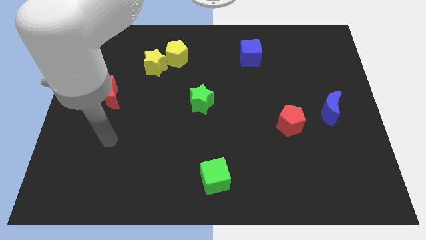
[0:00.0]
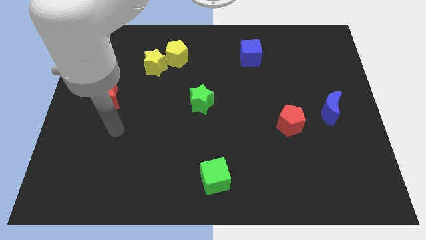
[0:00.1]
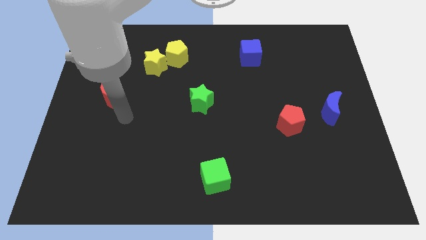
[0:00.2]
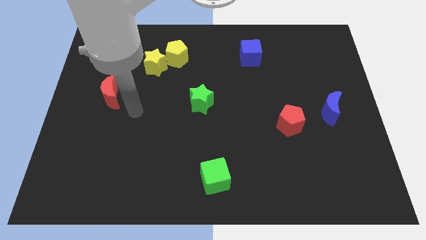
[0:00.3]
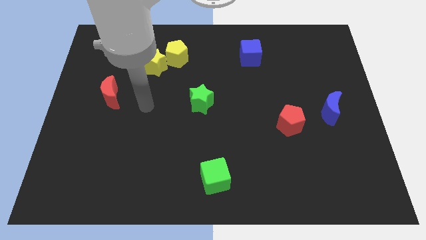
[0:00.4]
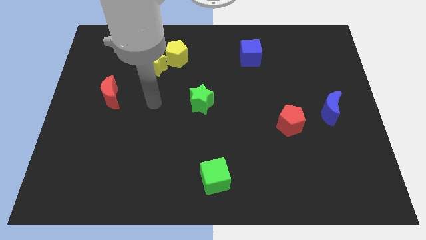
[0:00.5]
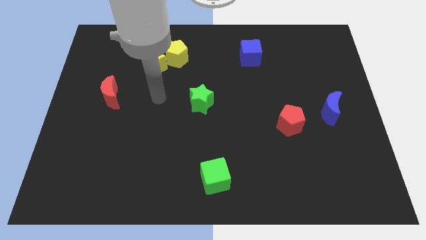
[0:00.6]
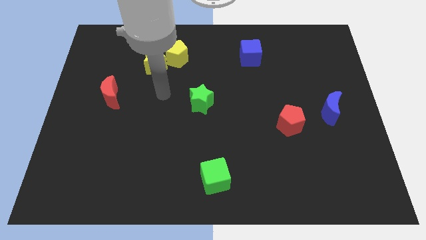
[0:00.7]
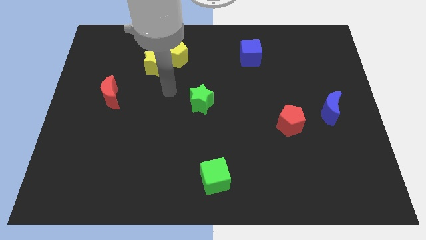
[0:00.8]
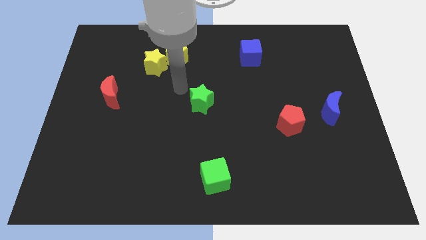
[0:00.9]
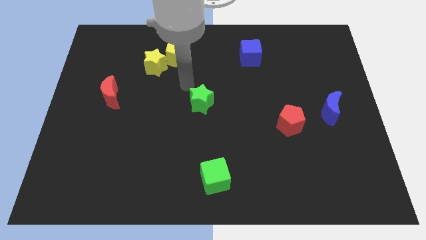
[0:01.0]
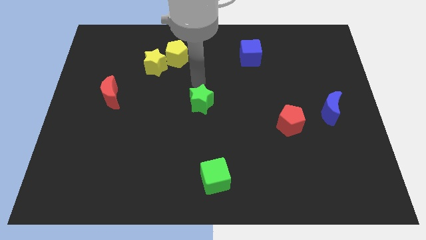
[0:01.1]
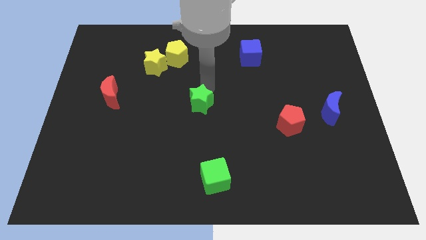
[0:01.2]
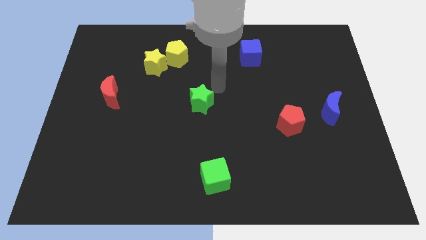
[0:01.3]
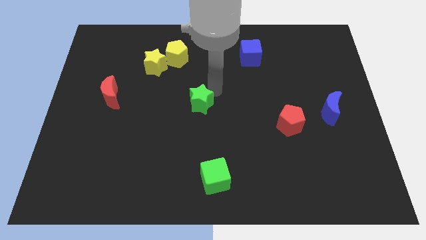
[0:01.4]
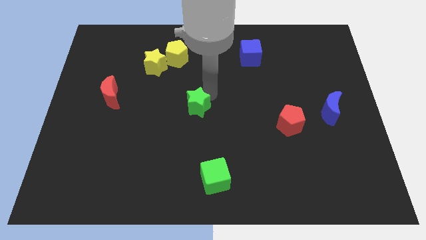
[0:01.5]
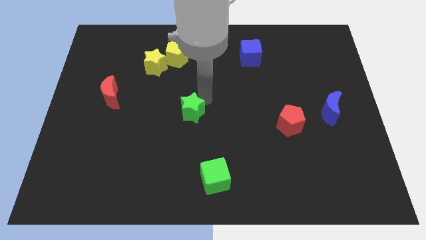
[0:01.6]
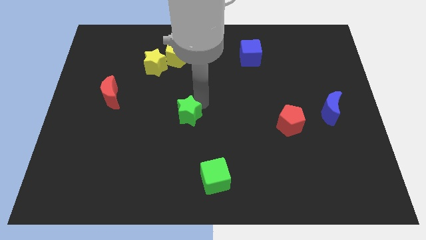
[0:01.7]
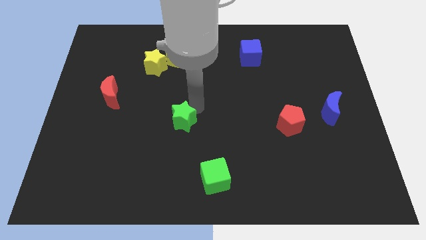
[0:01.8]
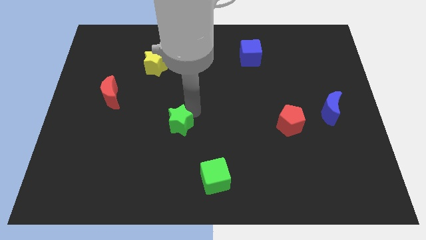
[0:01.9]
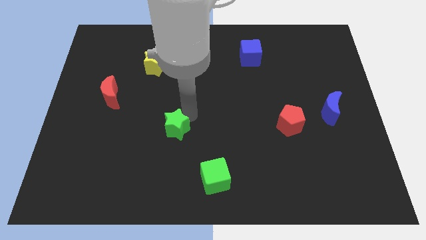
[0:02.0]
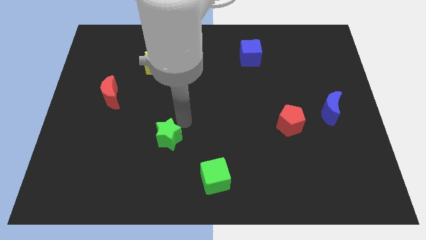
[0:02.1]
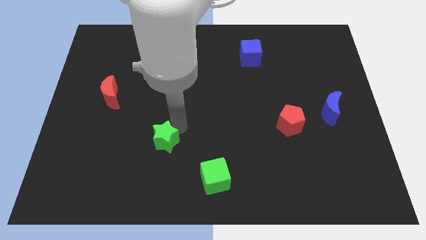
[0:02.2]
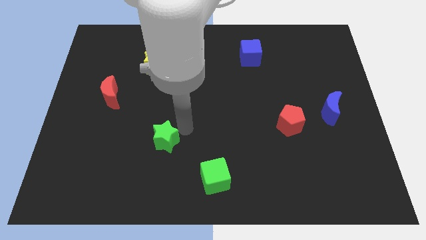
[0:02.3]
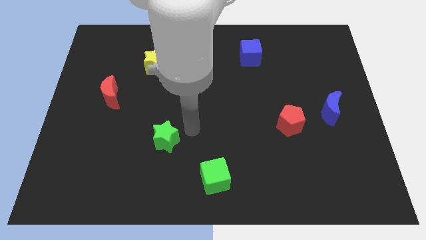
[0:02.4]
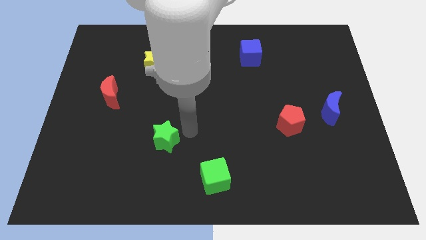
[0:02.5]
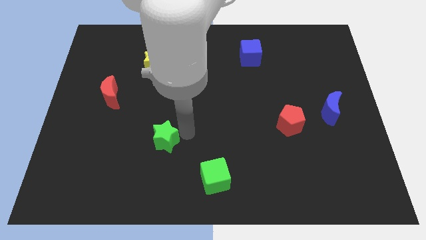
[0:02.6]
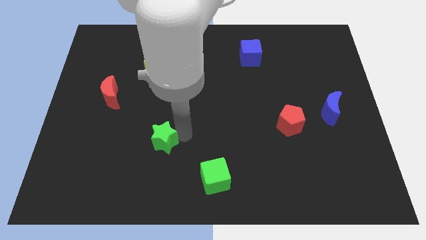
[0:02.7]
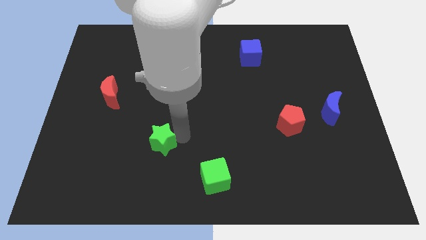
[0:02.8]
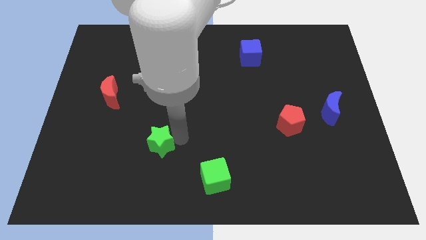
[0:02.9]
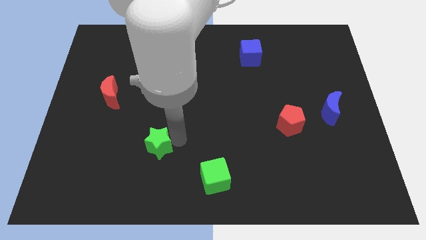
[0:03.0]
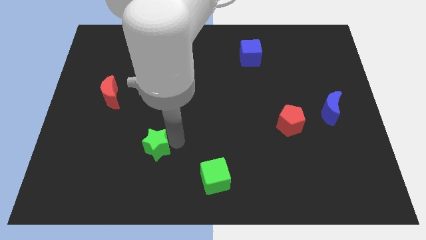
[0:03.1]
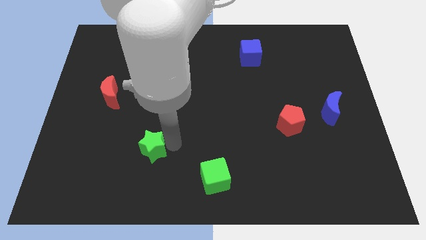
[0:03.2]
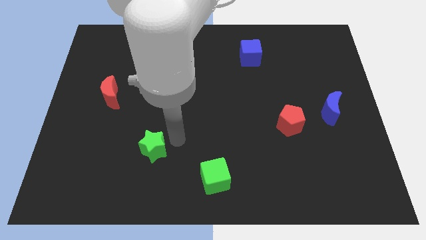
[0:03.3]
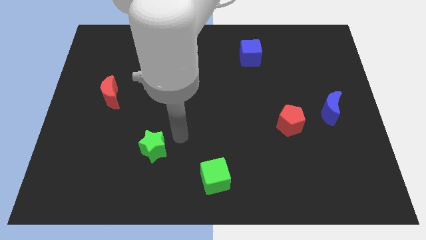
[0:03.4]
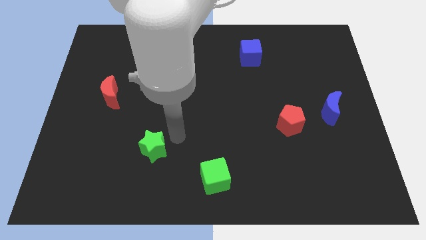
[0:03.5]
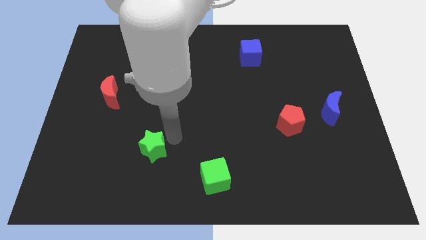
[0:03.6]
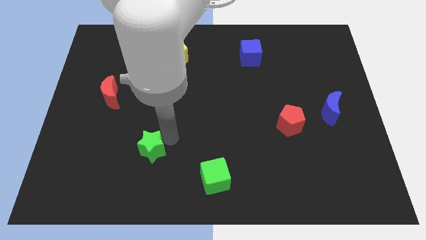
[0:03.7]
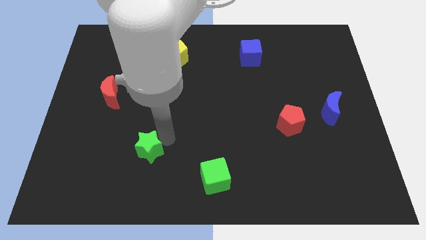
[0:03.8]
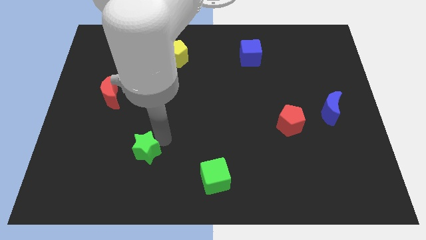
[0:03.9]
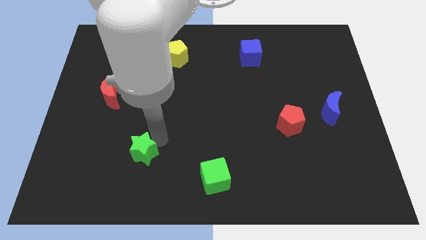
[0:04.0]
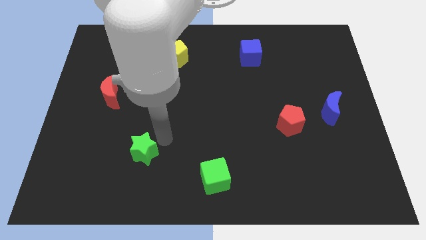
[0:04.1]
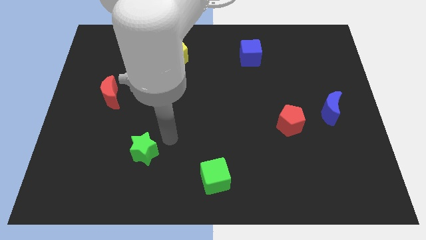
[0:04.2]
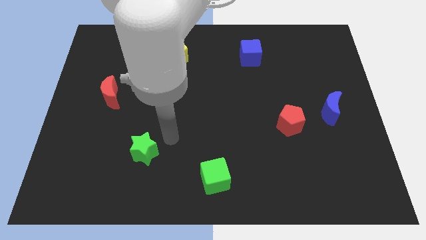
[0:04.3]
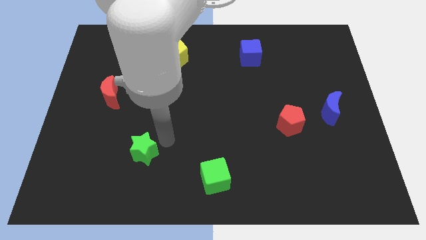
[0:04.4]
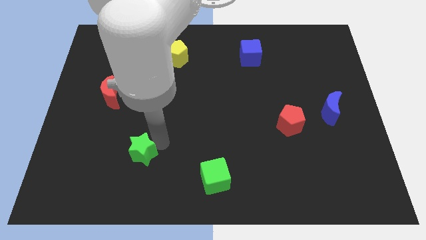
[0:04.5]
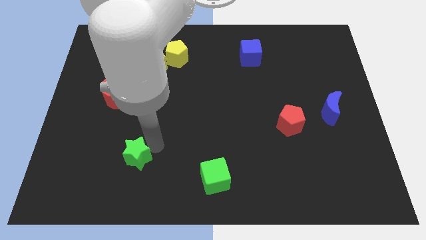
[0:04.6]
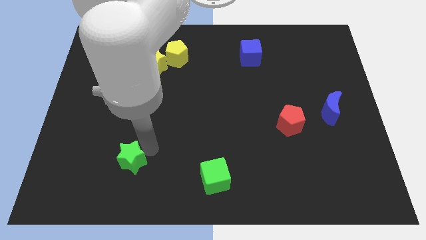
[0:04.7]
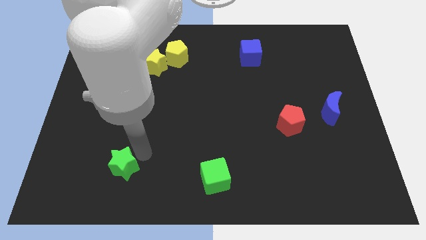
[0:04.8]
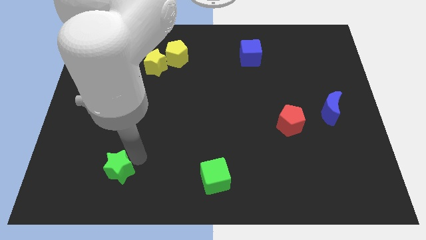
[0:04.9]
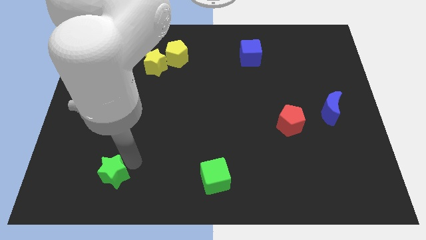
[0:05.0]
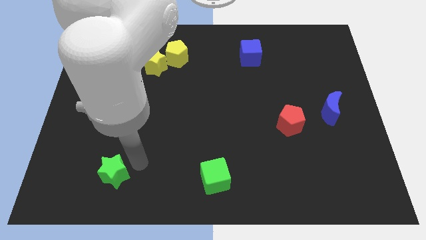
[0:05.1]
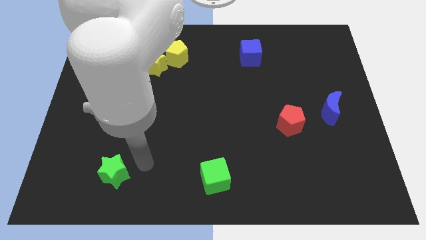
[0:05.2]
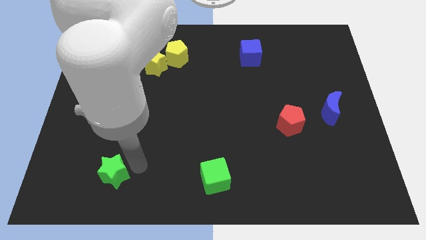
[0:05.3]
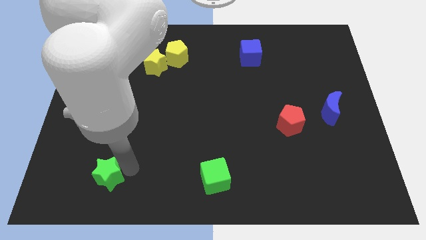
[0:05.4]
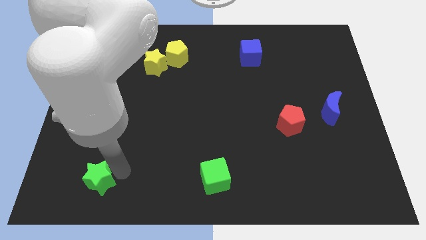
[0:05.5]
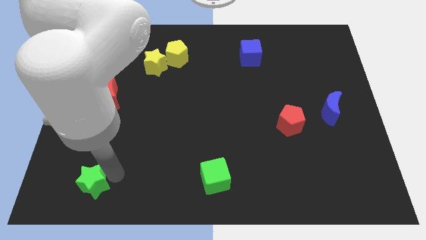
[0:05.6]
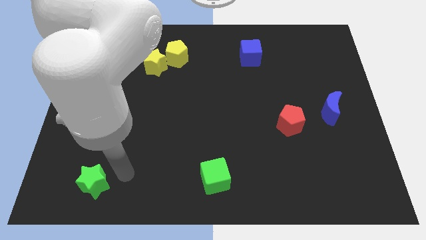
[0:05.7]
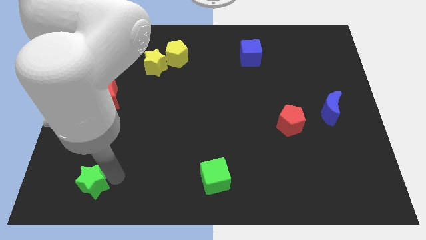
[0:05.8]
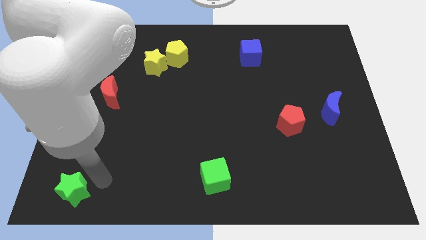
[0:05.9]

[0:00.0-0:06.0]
move the green star to the lower left corner
